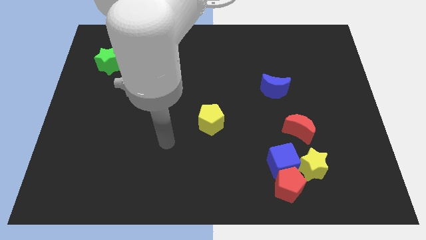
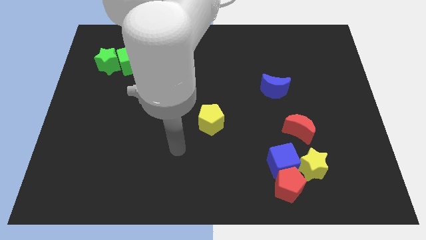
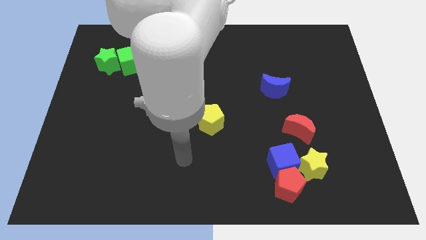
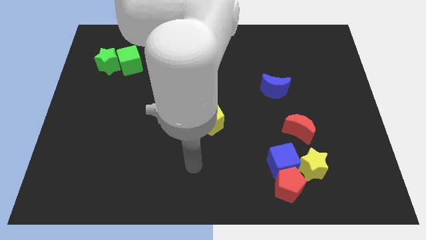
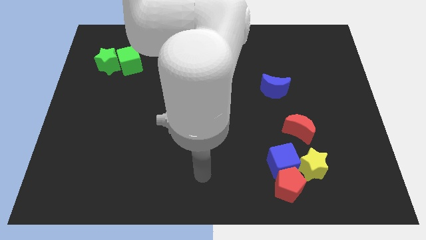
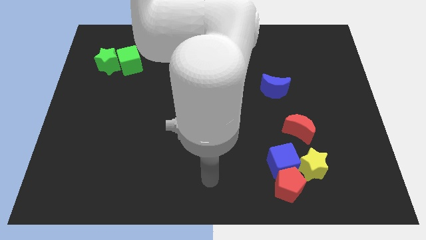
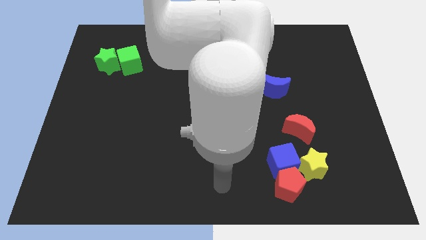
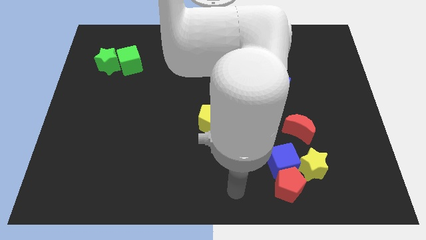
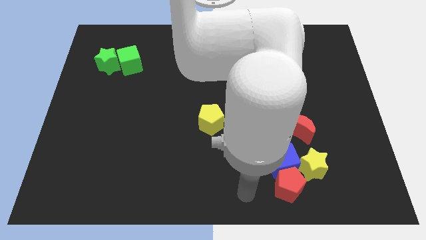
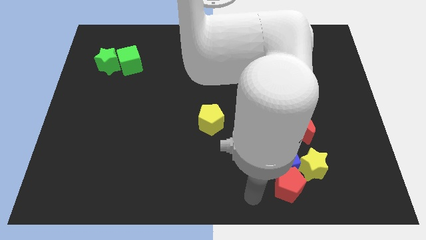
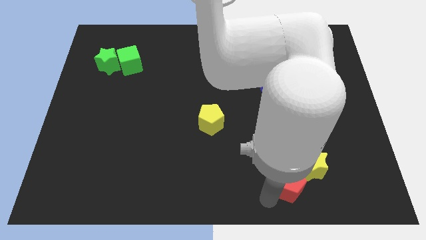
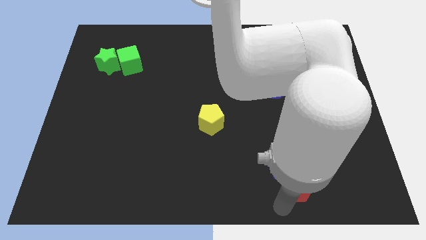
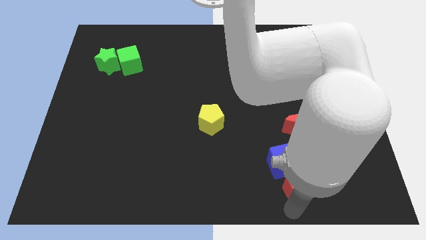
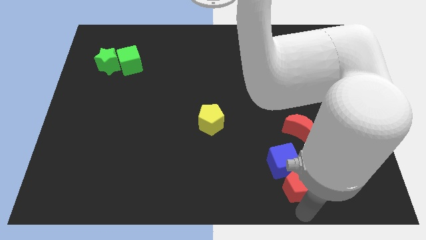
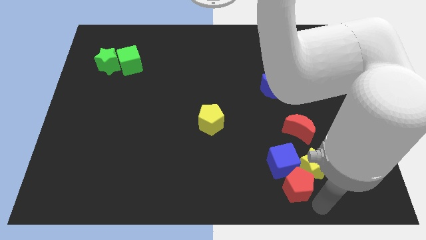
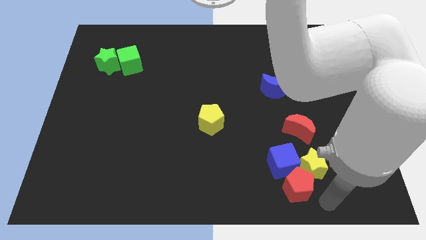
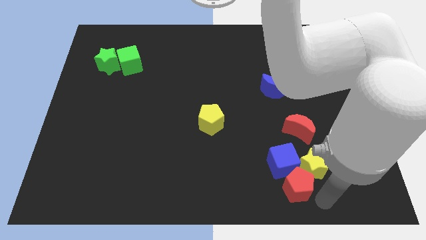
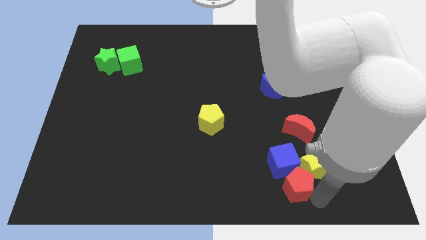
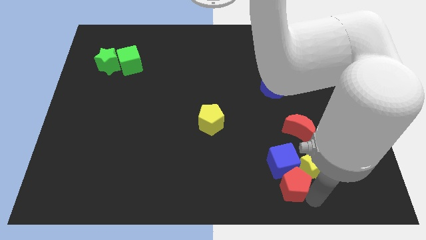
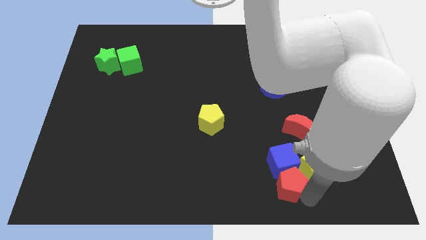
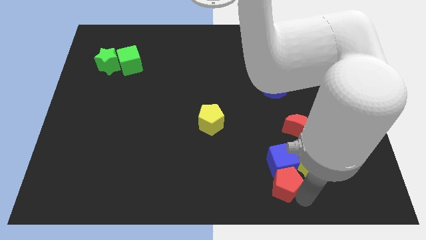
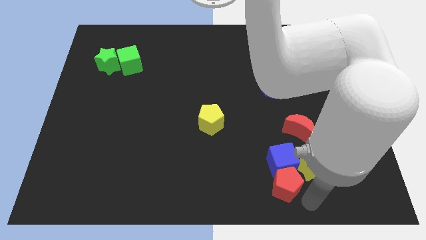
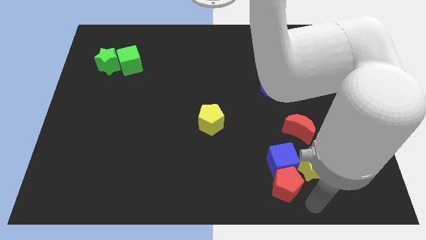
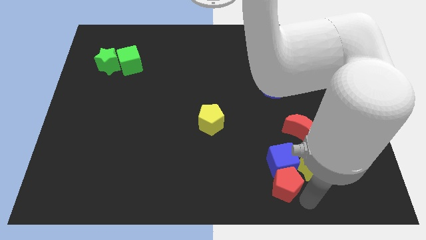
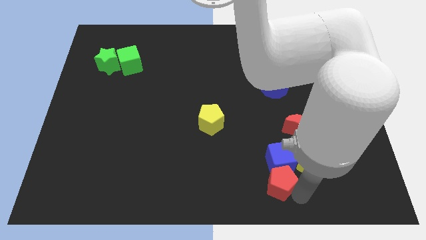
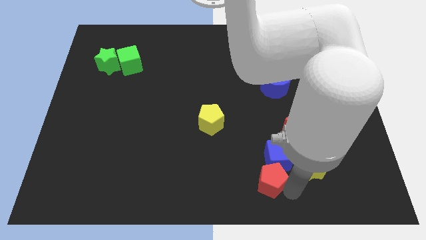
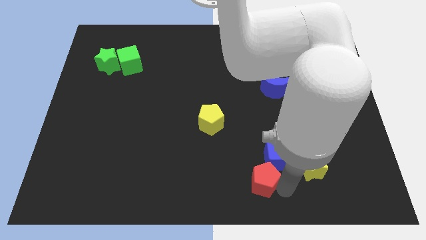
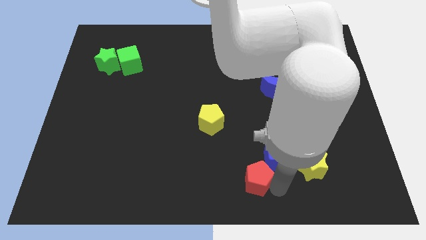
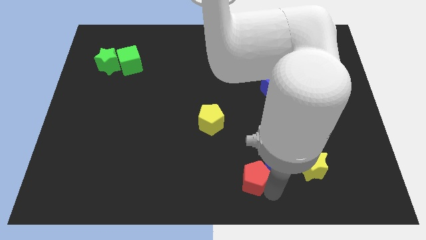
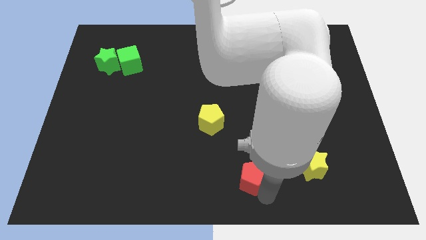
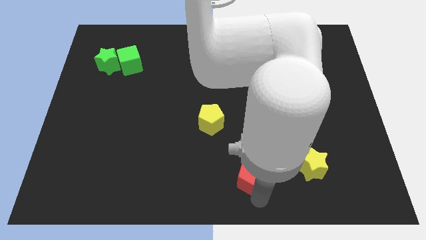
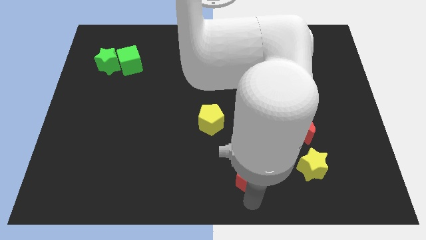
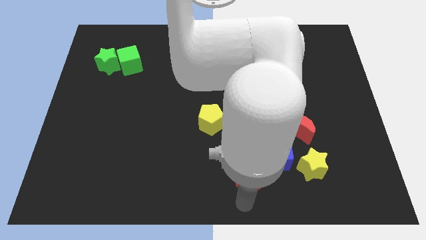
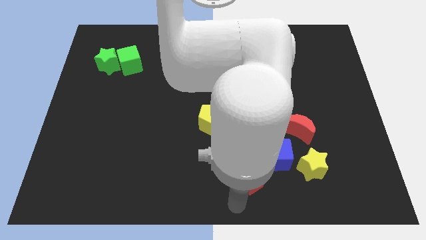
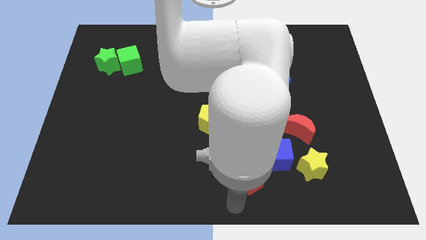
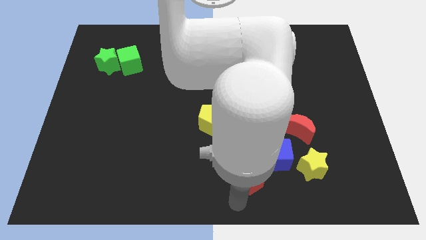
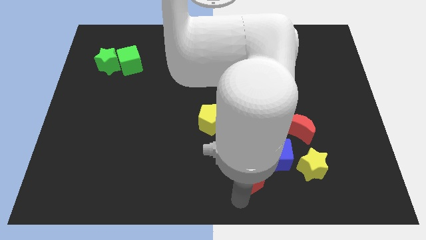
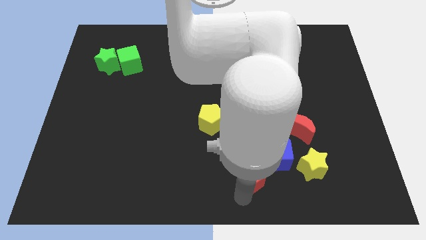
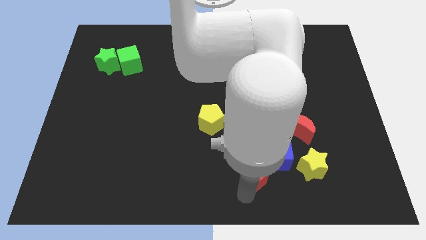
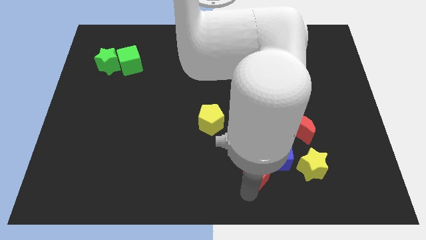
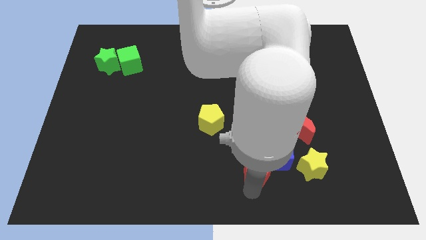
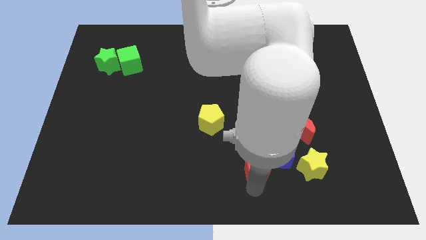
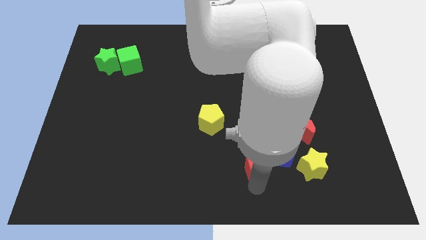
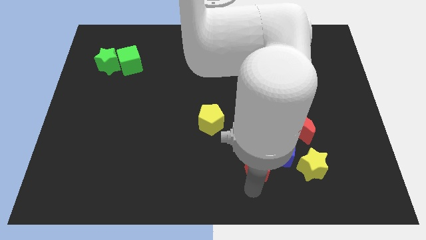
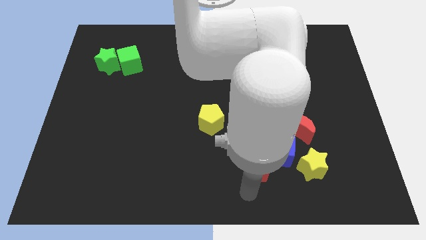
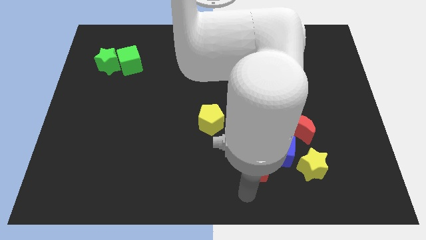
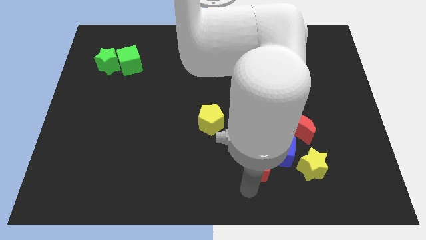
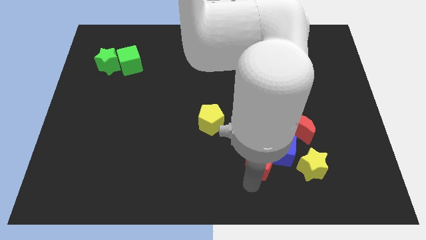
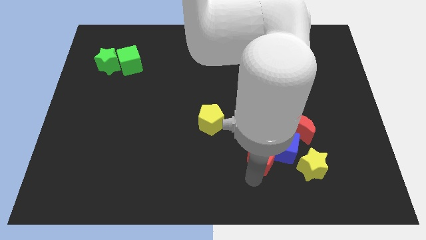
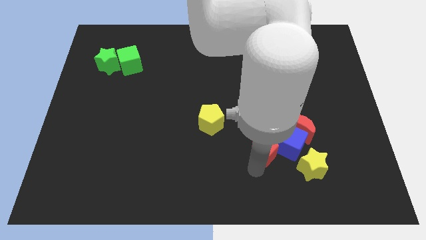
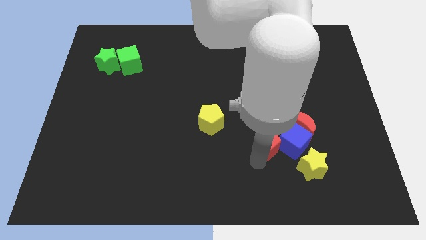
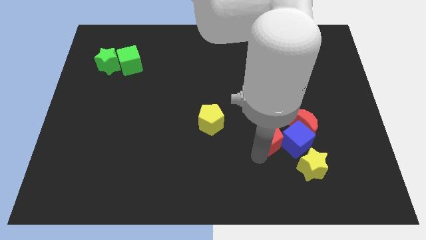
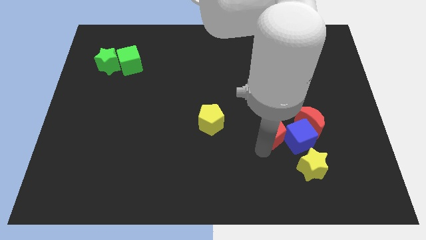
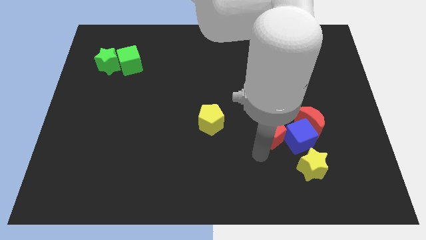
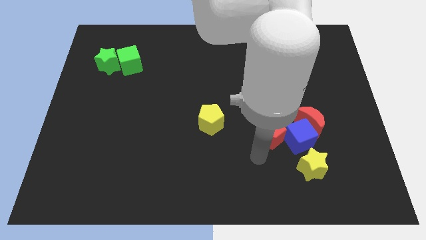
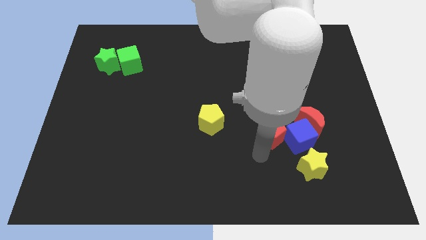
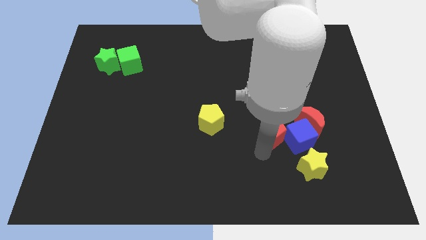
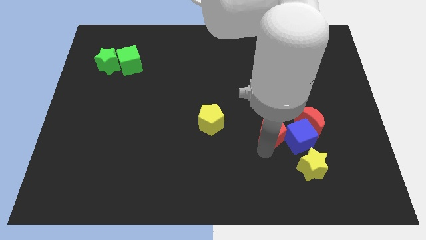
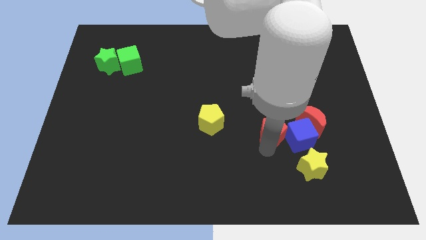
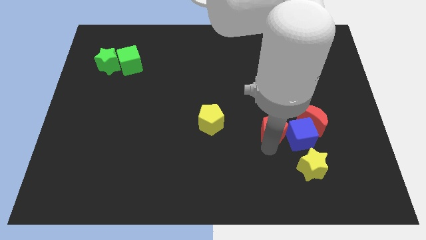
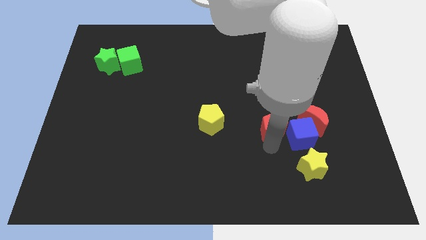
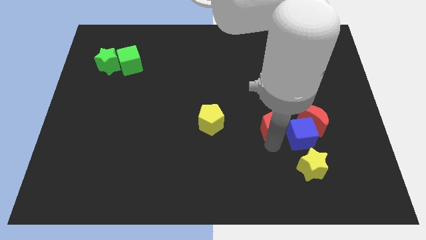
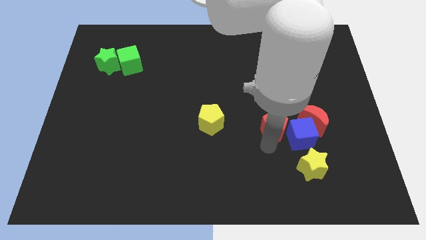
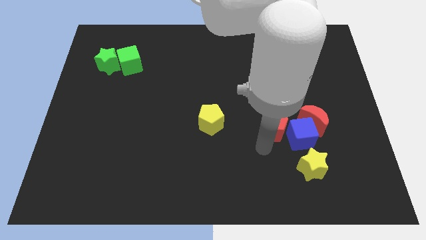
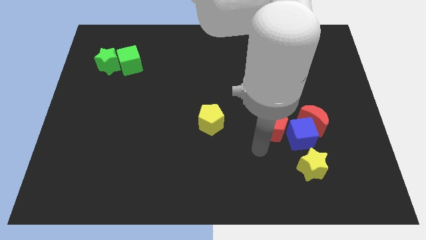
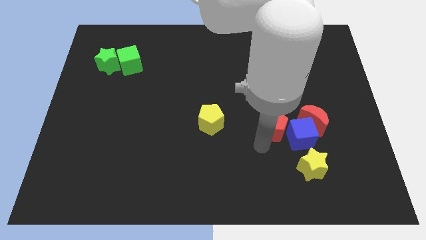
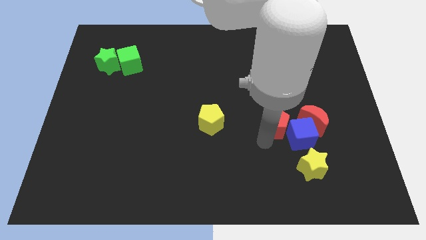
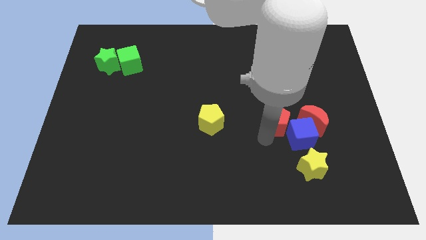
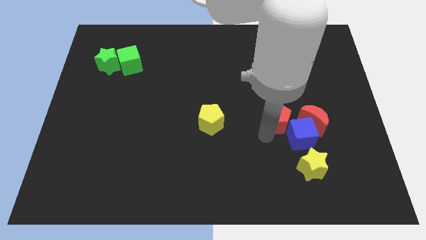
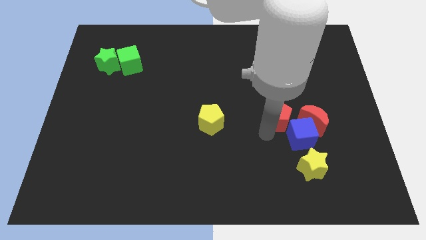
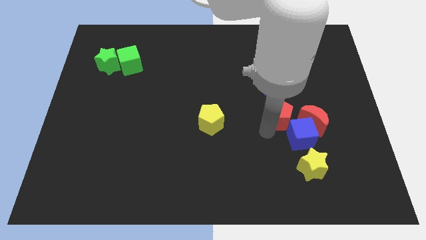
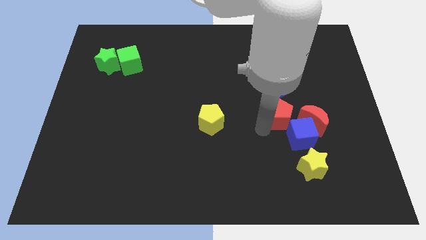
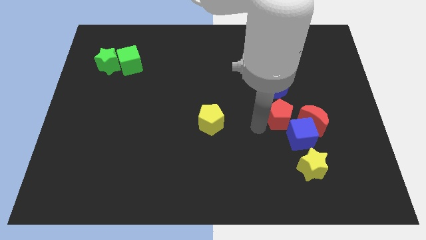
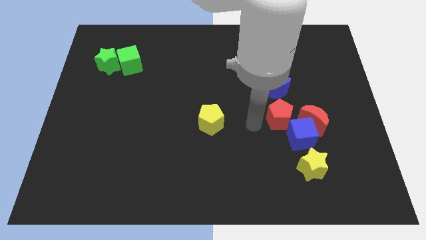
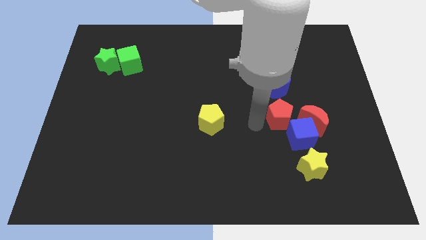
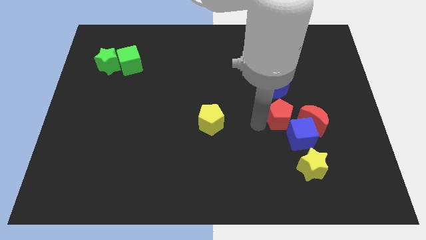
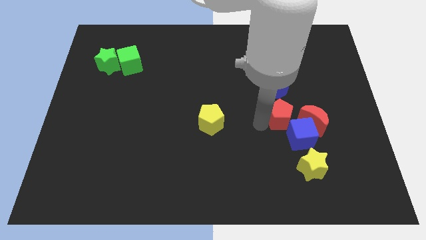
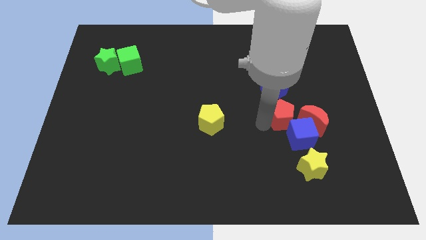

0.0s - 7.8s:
push the red pentagon above the yellow star
